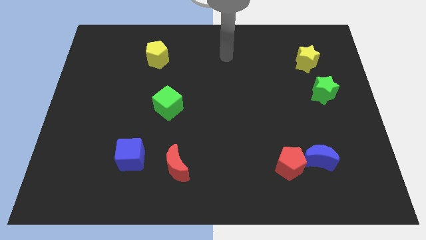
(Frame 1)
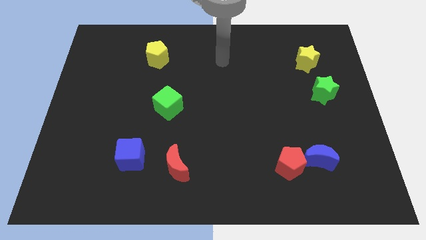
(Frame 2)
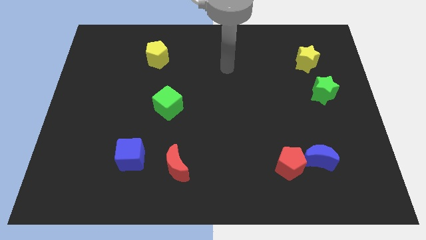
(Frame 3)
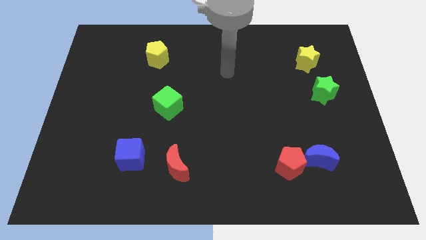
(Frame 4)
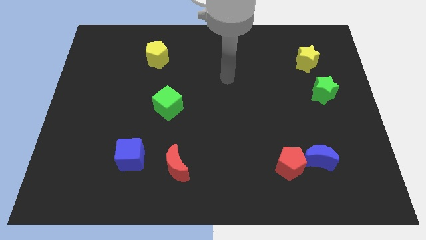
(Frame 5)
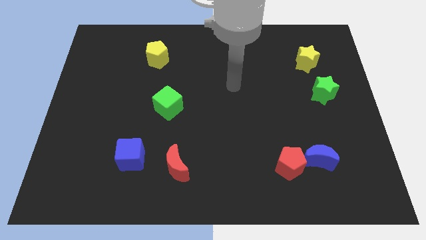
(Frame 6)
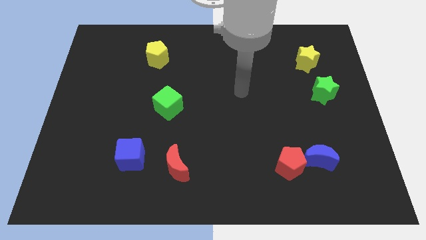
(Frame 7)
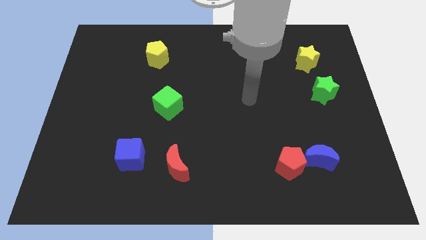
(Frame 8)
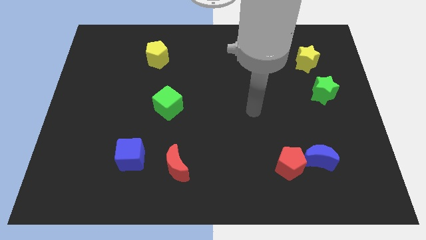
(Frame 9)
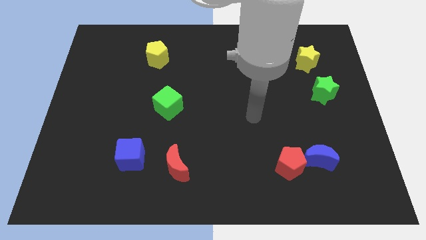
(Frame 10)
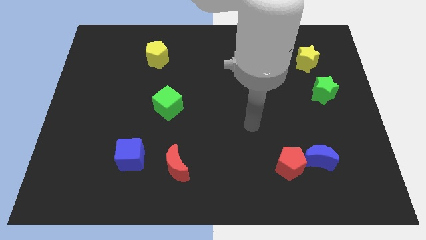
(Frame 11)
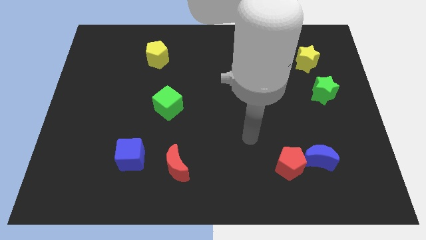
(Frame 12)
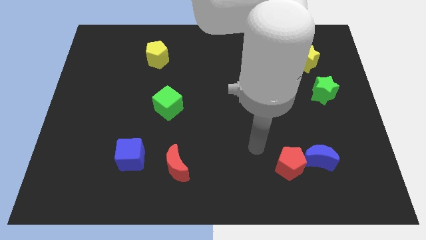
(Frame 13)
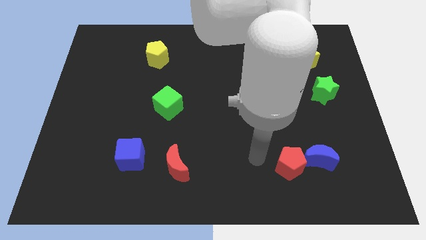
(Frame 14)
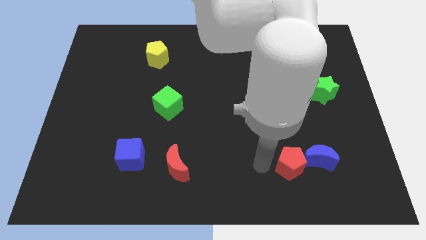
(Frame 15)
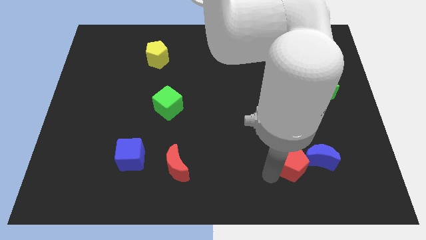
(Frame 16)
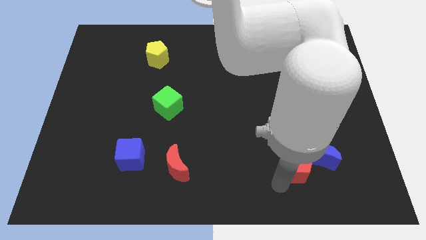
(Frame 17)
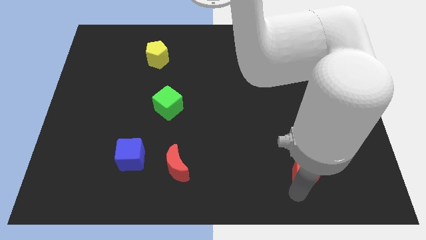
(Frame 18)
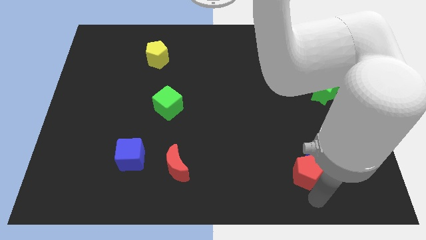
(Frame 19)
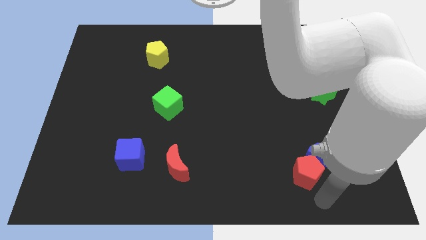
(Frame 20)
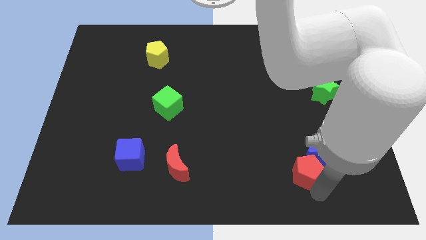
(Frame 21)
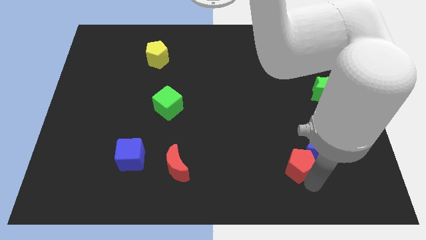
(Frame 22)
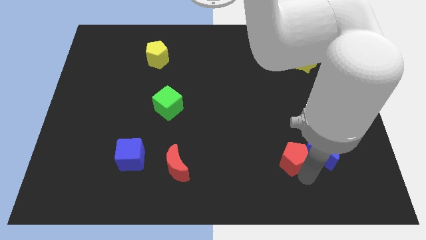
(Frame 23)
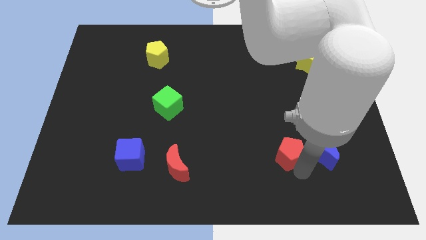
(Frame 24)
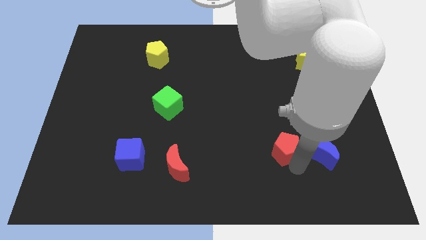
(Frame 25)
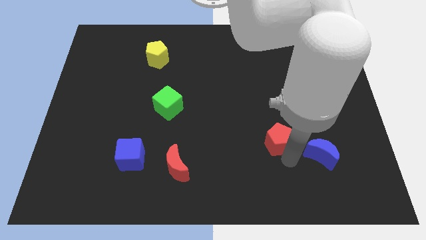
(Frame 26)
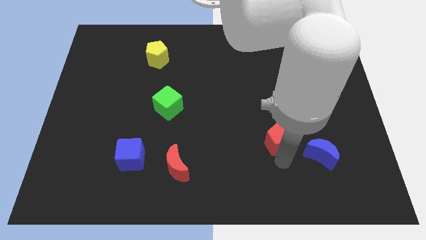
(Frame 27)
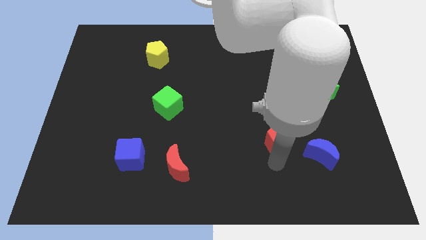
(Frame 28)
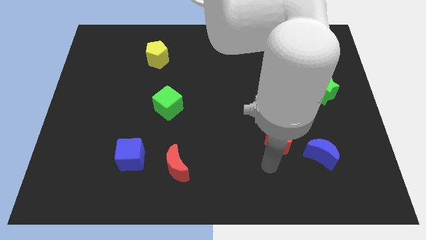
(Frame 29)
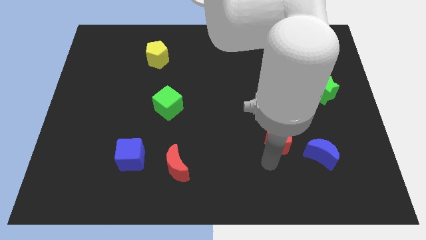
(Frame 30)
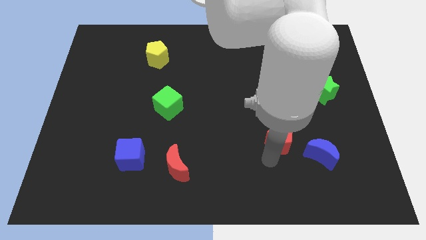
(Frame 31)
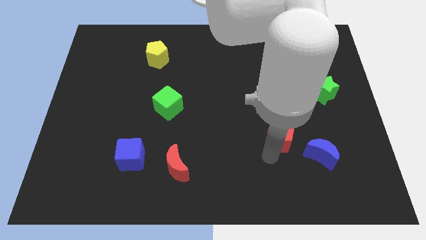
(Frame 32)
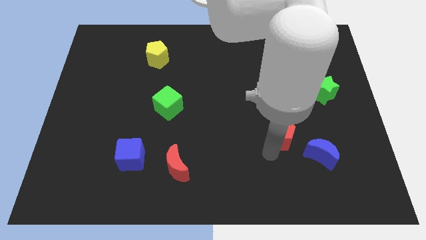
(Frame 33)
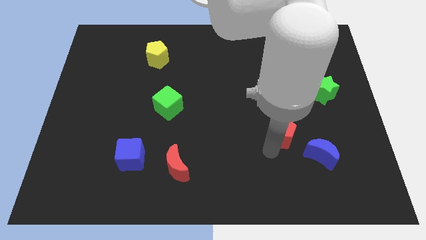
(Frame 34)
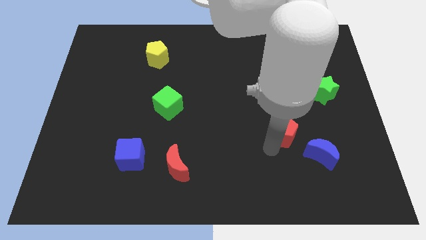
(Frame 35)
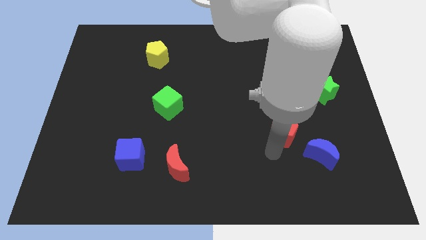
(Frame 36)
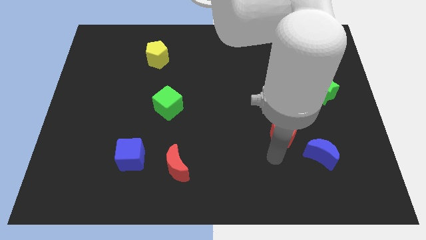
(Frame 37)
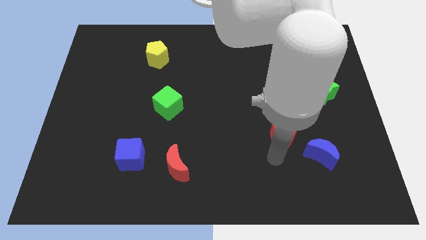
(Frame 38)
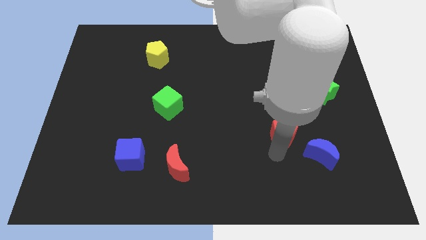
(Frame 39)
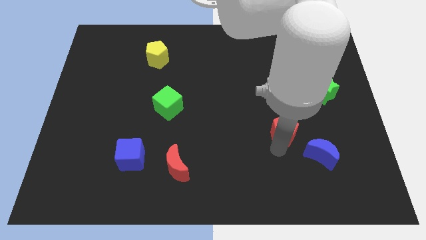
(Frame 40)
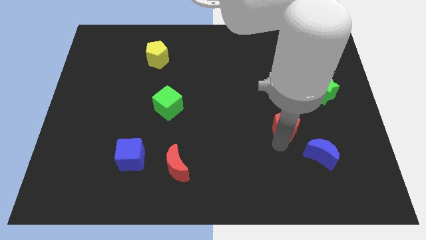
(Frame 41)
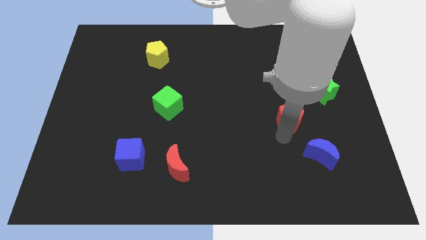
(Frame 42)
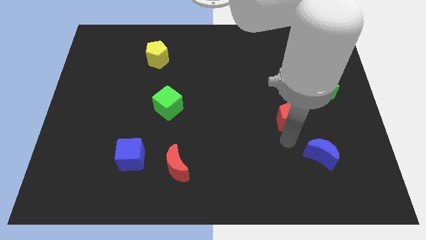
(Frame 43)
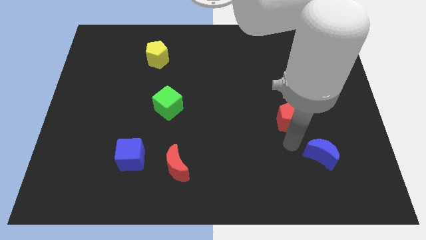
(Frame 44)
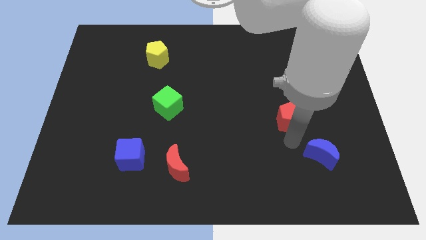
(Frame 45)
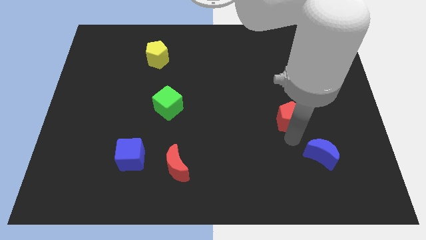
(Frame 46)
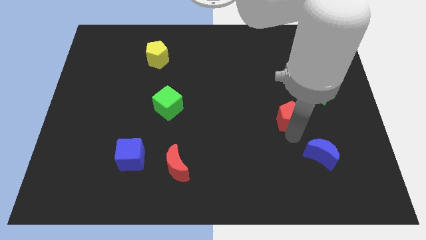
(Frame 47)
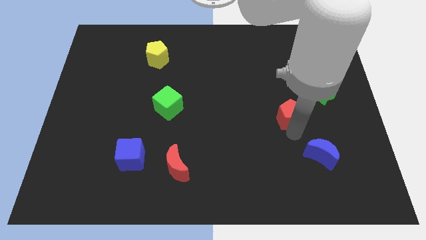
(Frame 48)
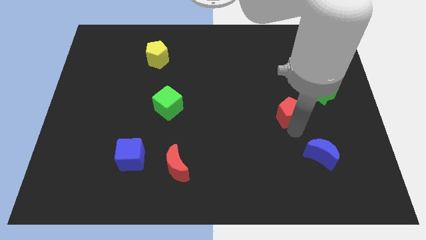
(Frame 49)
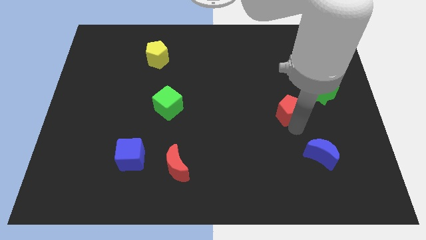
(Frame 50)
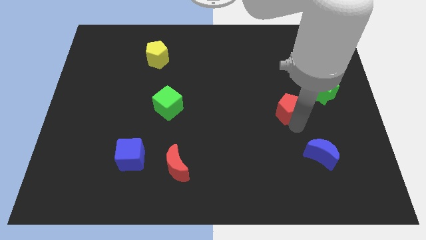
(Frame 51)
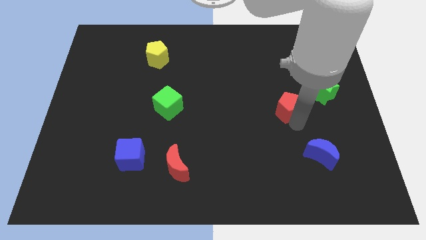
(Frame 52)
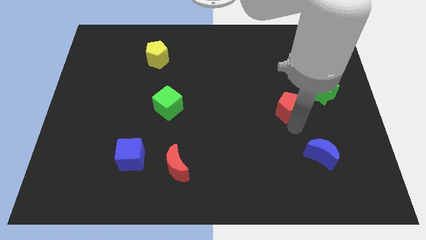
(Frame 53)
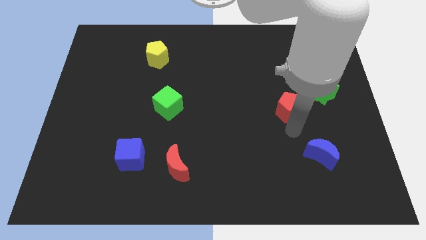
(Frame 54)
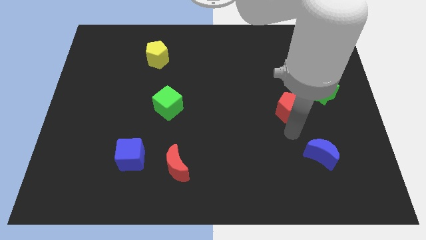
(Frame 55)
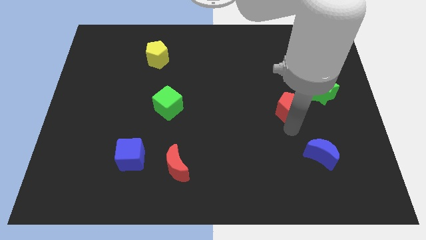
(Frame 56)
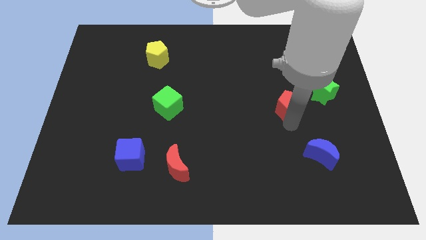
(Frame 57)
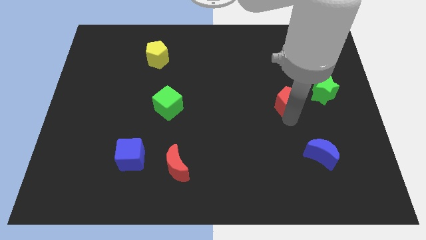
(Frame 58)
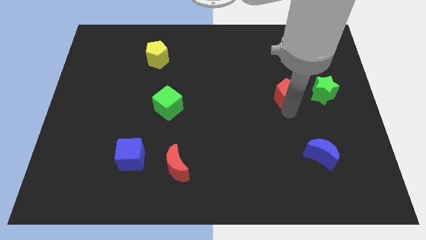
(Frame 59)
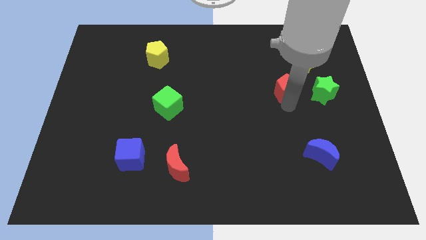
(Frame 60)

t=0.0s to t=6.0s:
push the red pentagon upwards

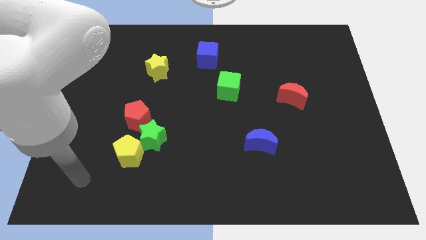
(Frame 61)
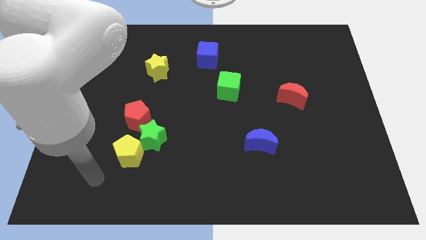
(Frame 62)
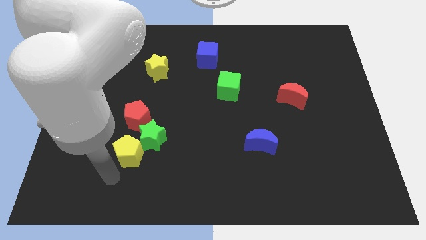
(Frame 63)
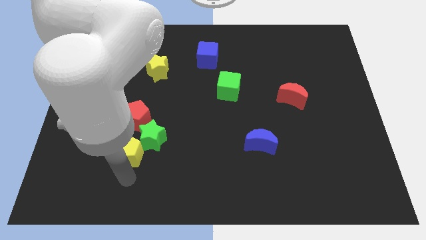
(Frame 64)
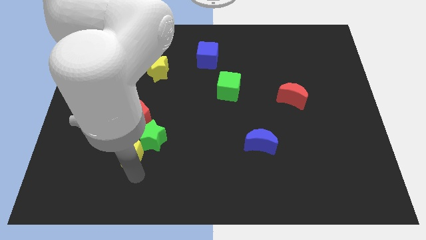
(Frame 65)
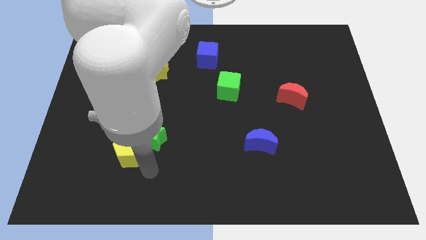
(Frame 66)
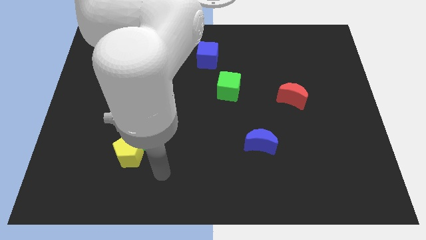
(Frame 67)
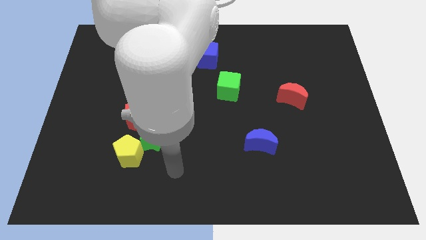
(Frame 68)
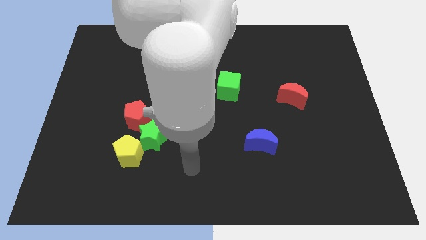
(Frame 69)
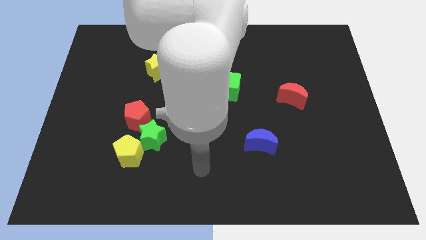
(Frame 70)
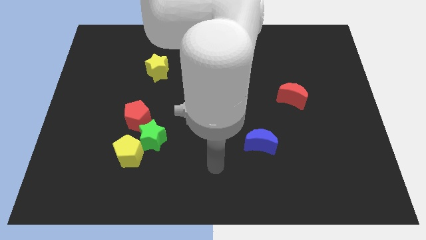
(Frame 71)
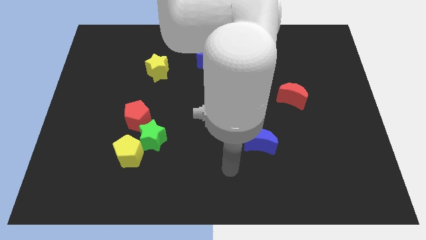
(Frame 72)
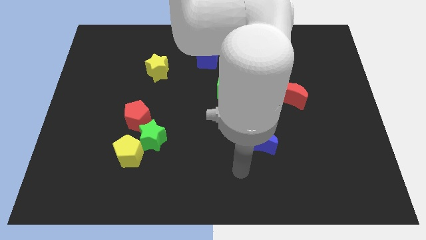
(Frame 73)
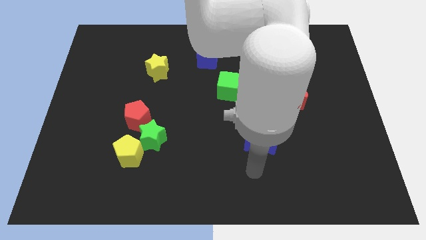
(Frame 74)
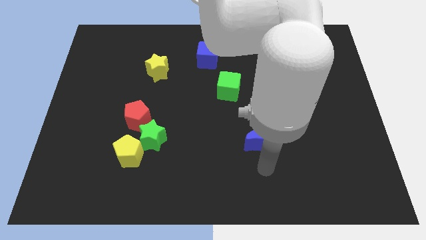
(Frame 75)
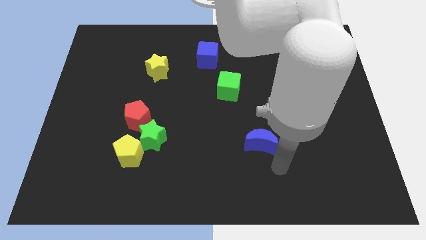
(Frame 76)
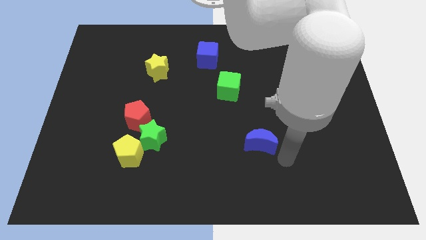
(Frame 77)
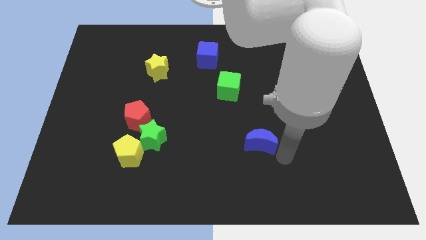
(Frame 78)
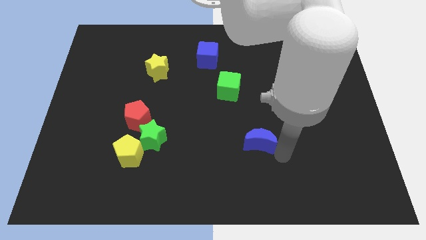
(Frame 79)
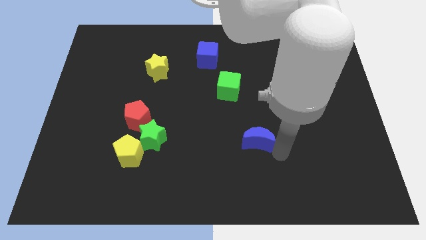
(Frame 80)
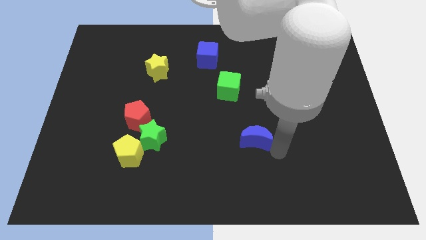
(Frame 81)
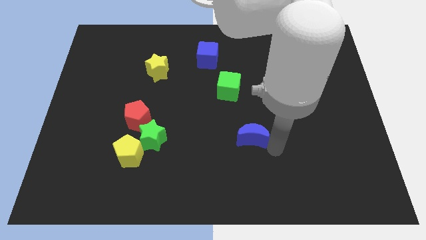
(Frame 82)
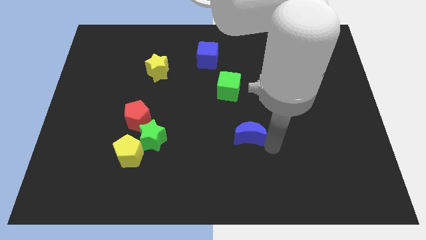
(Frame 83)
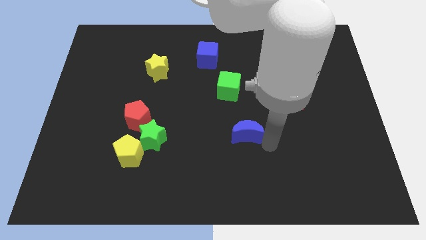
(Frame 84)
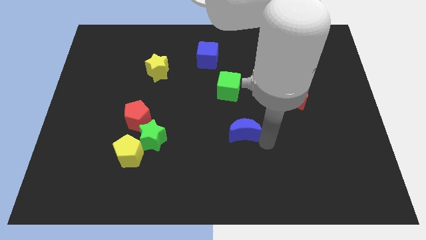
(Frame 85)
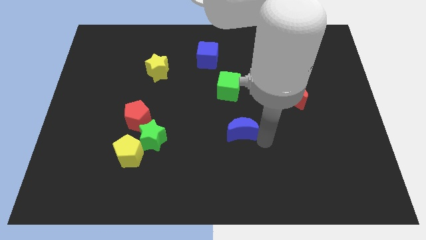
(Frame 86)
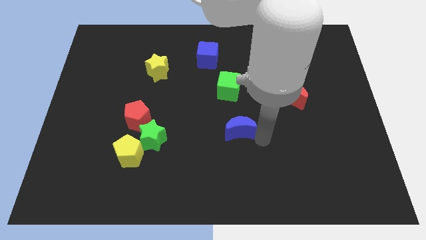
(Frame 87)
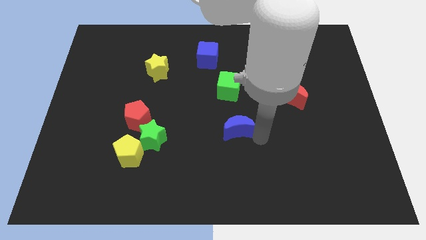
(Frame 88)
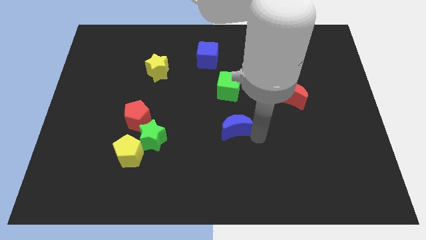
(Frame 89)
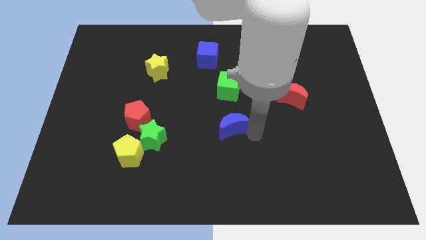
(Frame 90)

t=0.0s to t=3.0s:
move the blue moon upwards and to the left diagonally slightly
